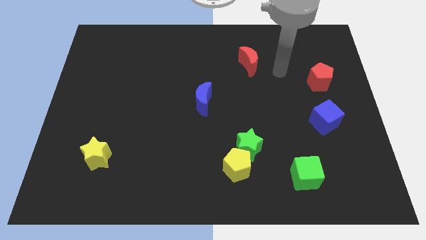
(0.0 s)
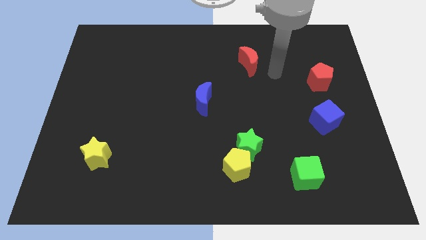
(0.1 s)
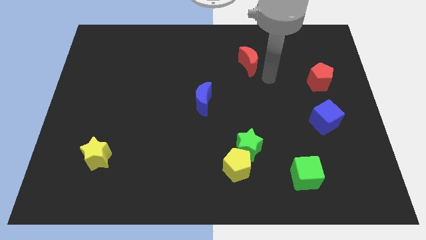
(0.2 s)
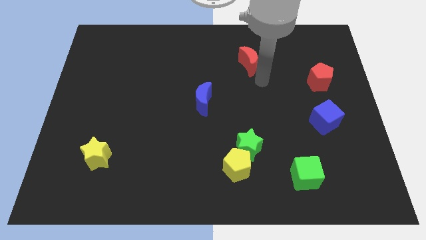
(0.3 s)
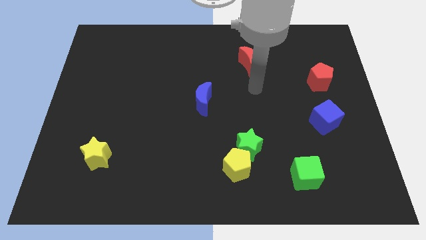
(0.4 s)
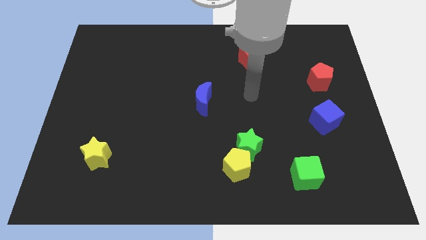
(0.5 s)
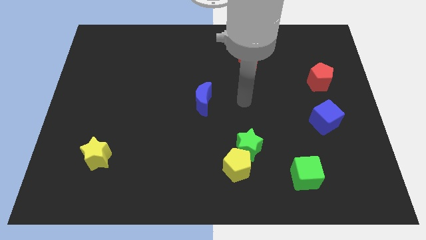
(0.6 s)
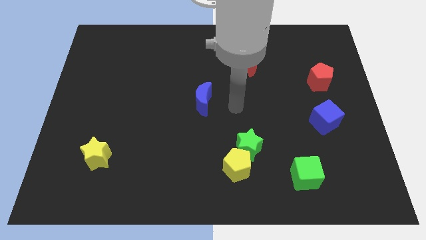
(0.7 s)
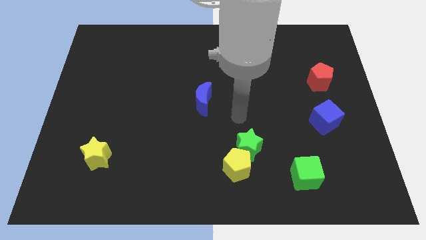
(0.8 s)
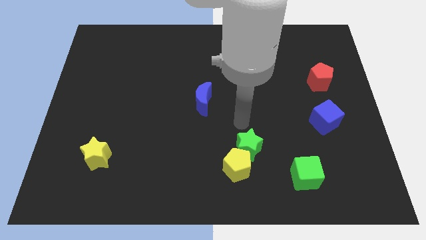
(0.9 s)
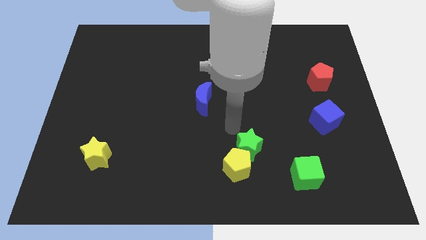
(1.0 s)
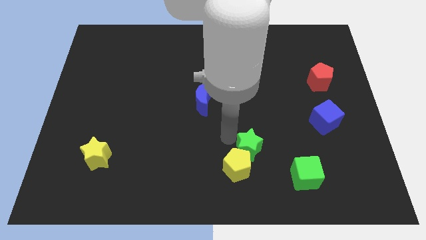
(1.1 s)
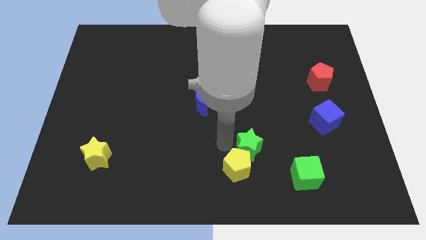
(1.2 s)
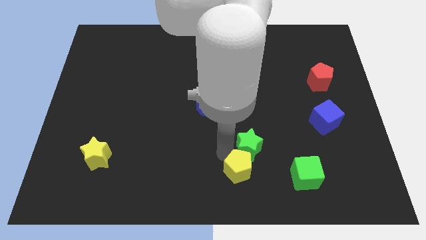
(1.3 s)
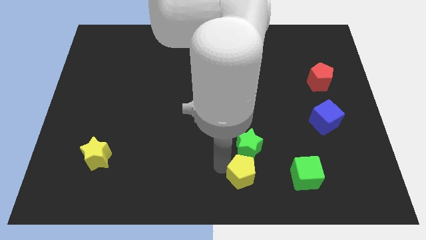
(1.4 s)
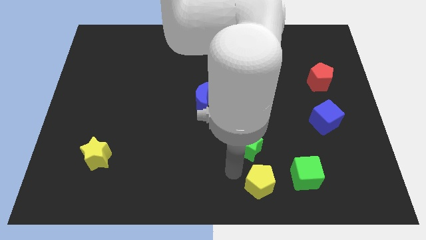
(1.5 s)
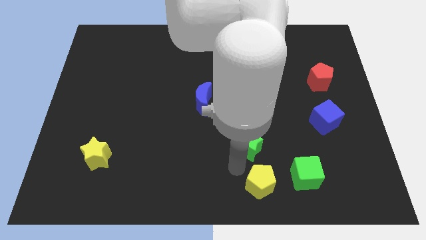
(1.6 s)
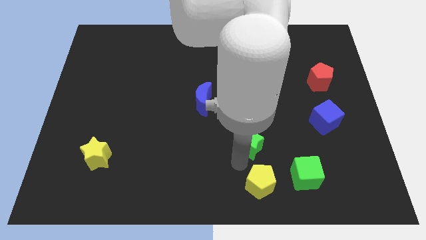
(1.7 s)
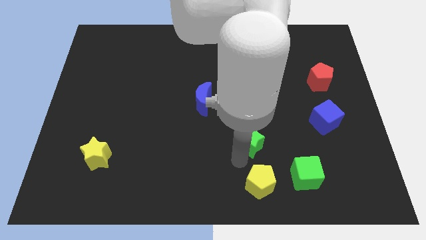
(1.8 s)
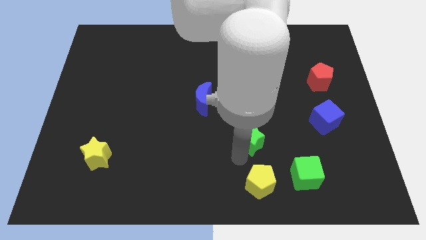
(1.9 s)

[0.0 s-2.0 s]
separate the green star from the yellow pentagon

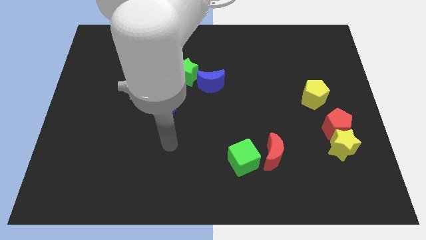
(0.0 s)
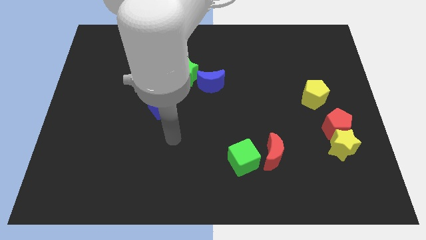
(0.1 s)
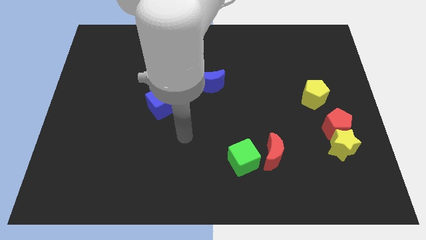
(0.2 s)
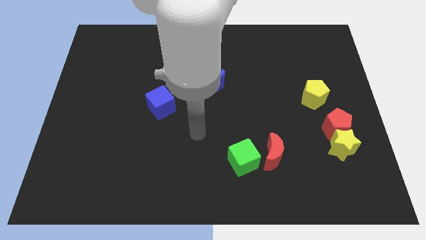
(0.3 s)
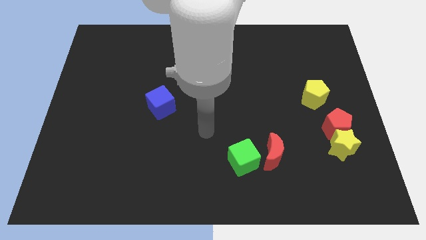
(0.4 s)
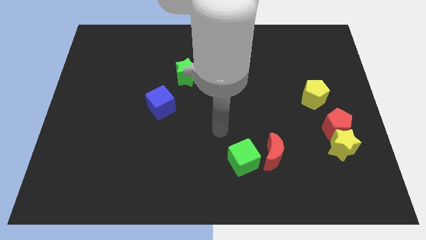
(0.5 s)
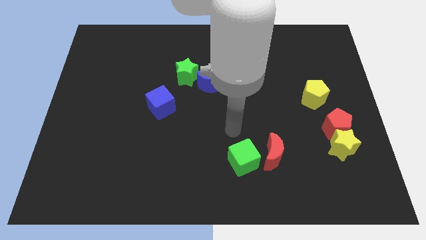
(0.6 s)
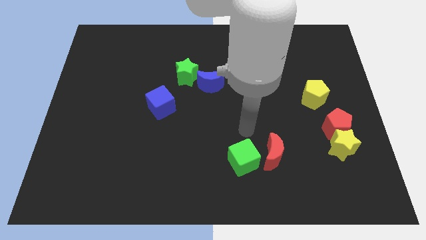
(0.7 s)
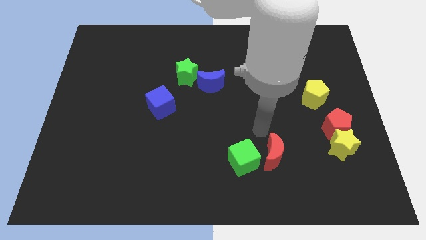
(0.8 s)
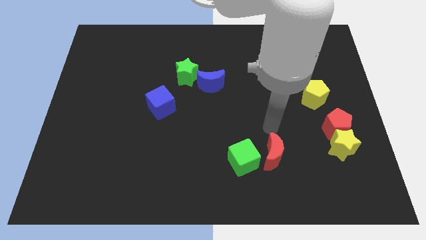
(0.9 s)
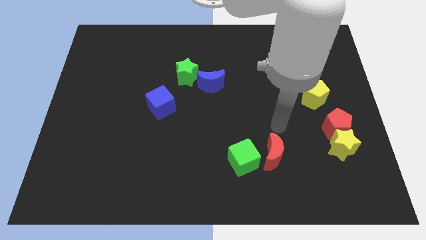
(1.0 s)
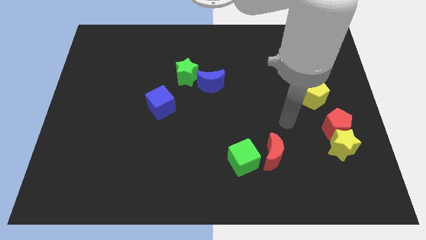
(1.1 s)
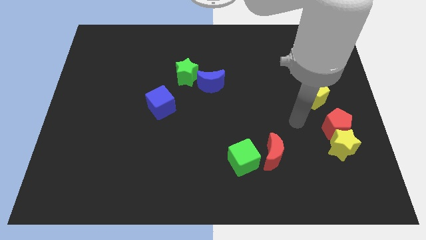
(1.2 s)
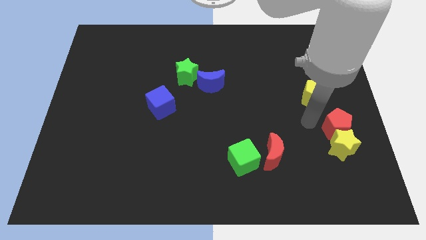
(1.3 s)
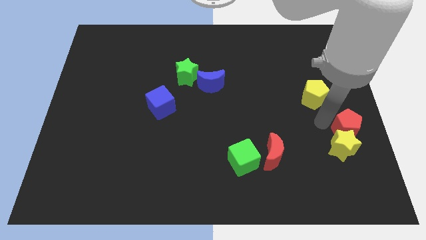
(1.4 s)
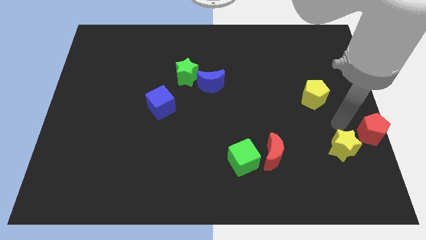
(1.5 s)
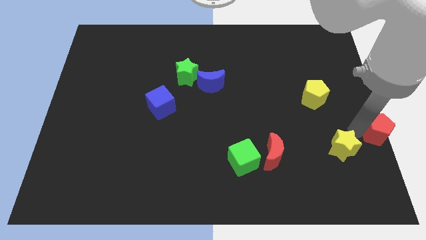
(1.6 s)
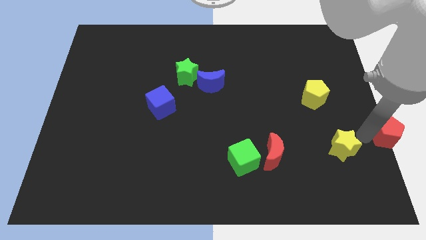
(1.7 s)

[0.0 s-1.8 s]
separate the yellow star from the red pentagon

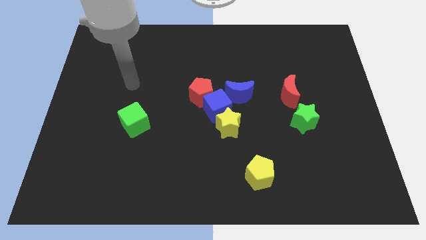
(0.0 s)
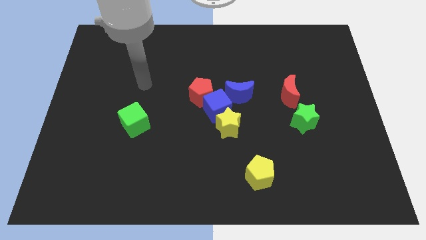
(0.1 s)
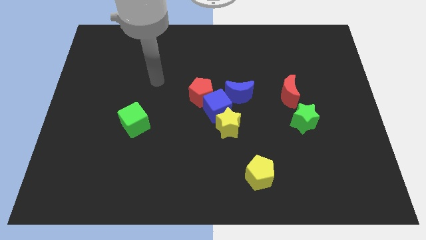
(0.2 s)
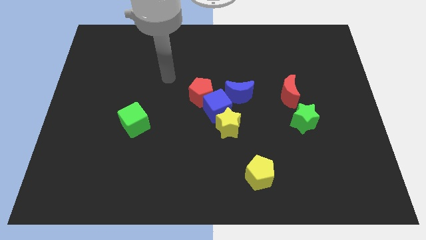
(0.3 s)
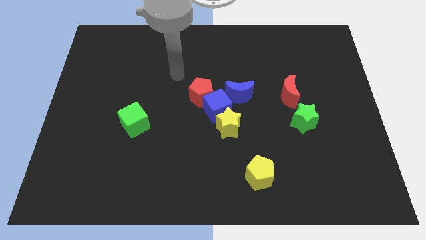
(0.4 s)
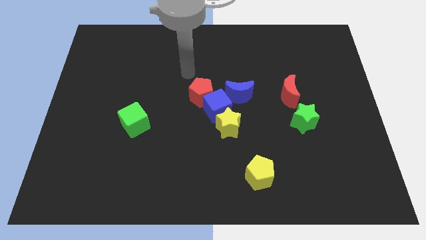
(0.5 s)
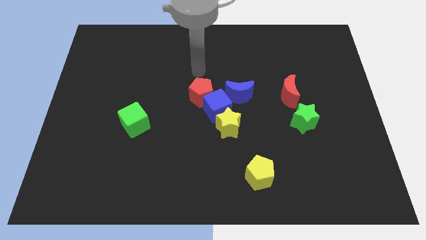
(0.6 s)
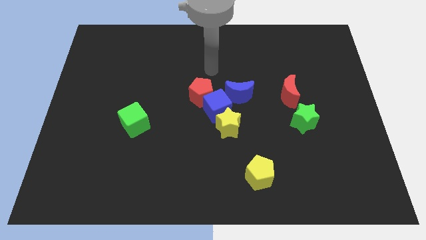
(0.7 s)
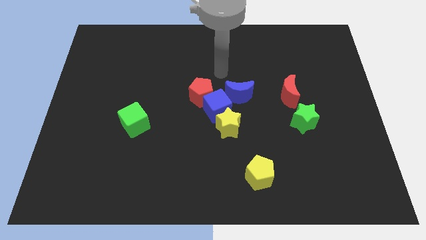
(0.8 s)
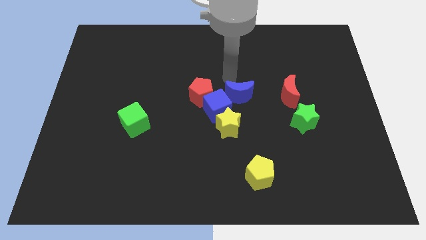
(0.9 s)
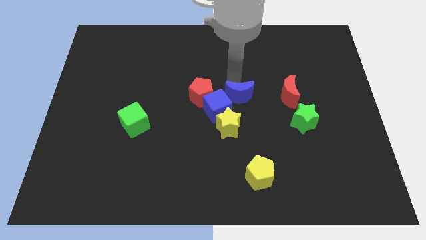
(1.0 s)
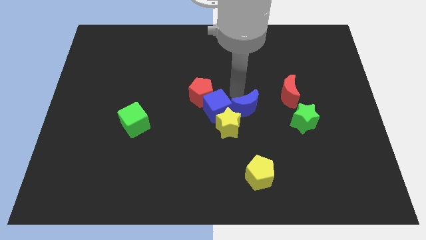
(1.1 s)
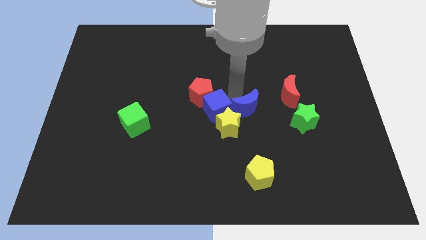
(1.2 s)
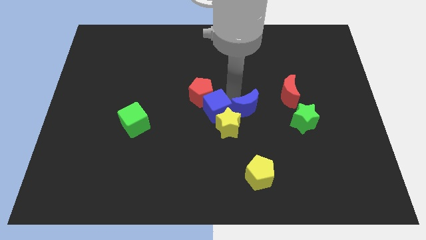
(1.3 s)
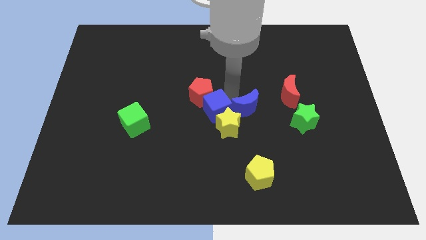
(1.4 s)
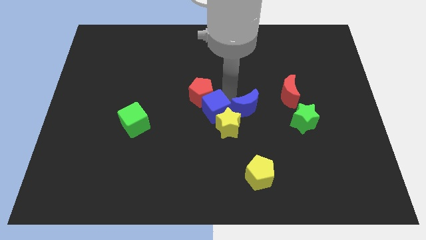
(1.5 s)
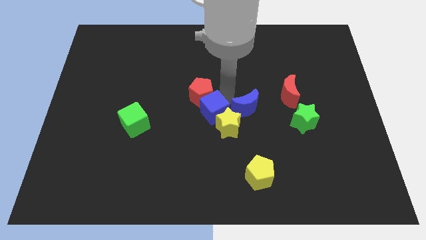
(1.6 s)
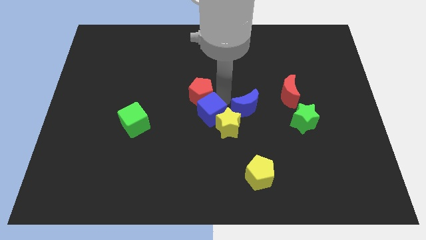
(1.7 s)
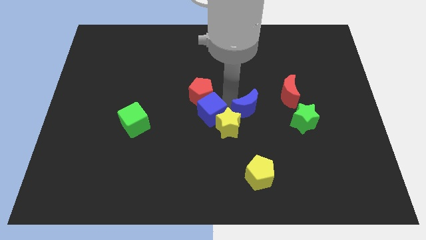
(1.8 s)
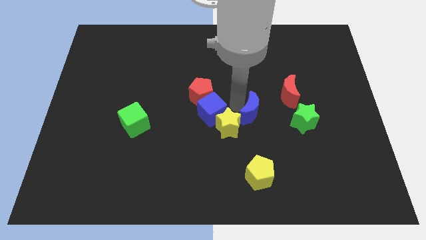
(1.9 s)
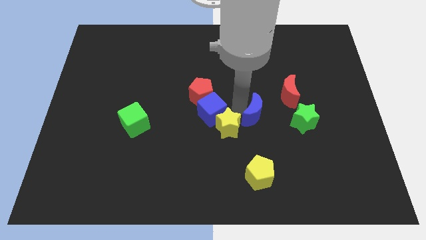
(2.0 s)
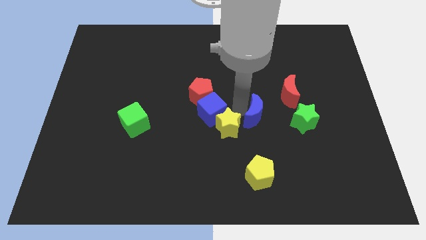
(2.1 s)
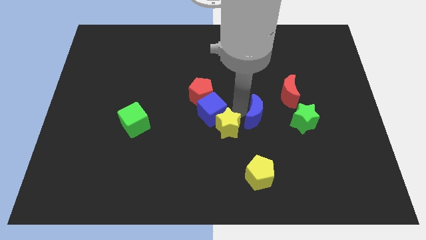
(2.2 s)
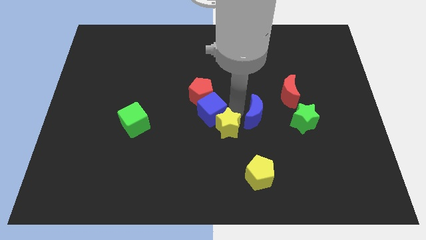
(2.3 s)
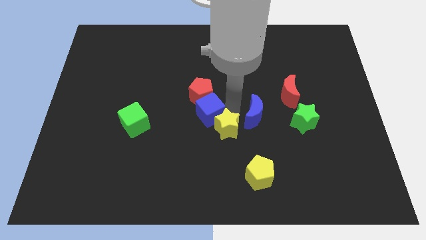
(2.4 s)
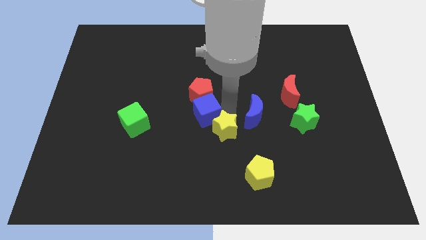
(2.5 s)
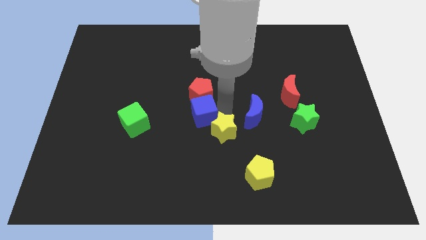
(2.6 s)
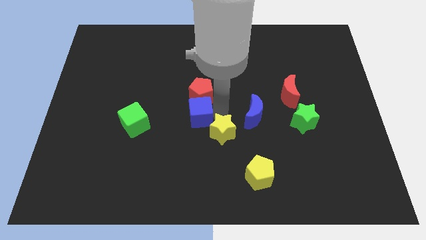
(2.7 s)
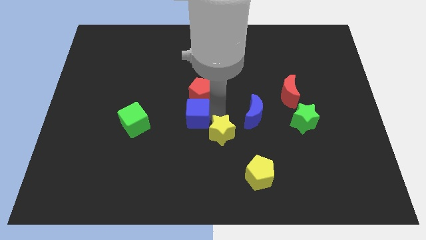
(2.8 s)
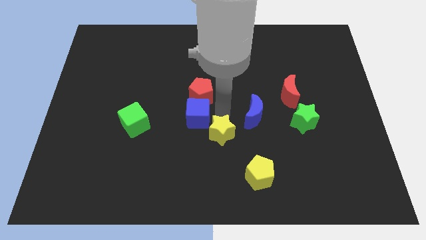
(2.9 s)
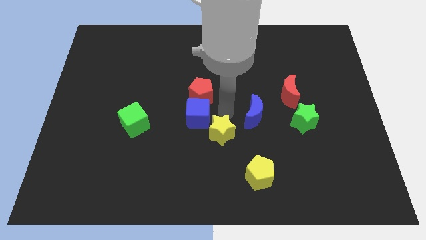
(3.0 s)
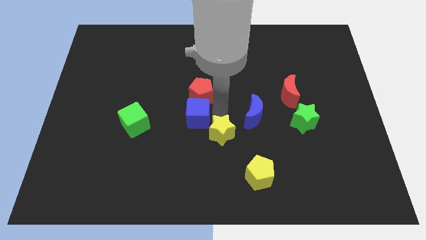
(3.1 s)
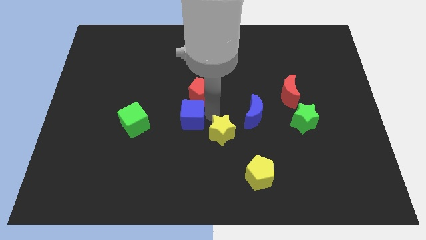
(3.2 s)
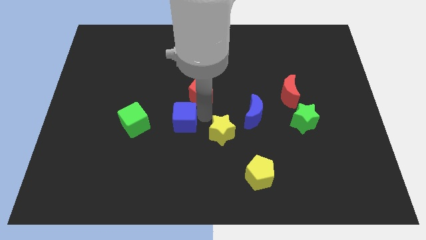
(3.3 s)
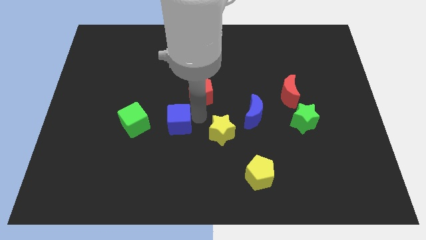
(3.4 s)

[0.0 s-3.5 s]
pull the blue cube apart from the yellow star, red pentagon, and blue moon

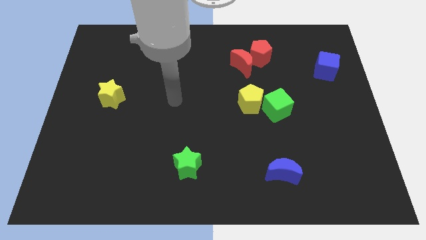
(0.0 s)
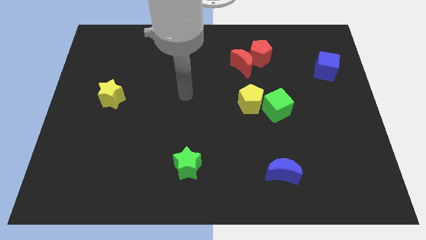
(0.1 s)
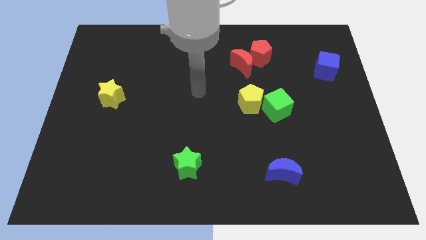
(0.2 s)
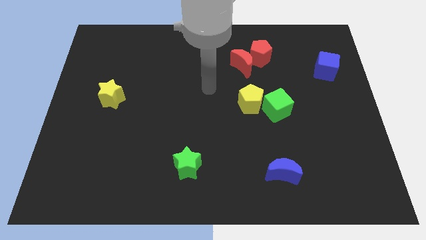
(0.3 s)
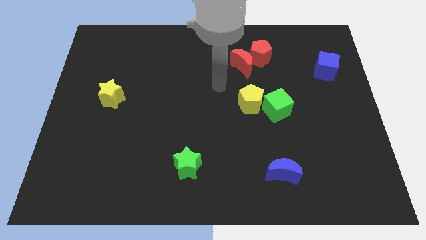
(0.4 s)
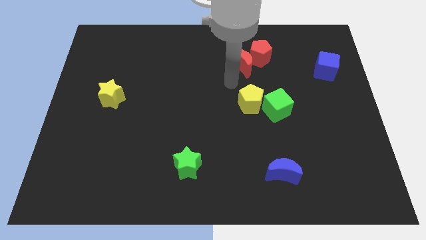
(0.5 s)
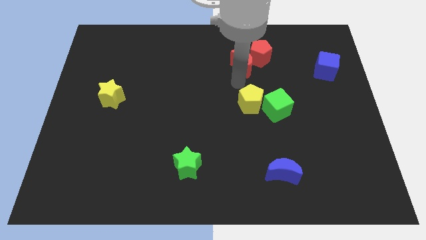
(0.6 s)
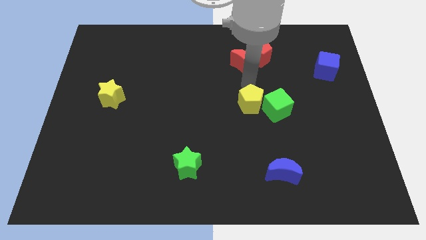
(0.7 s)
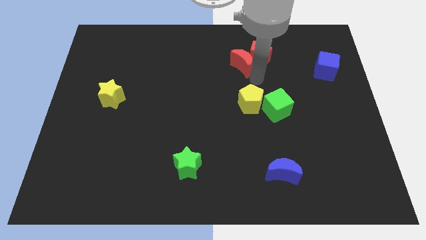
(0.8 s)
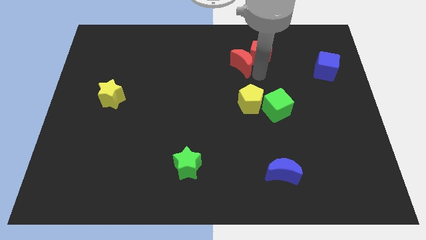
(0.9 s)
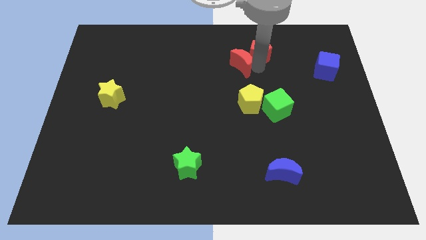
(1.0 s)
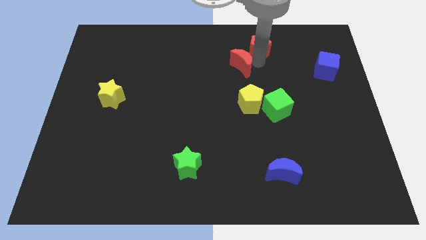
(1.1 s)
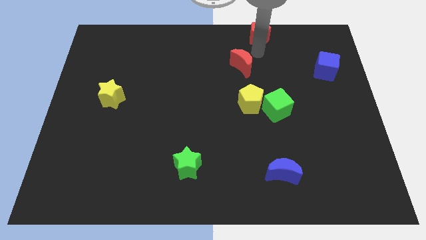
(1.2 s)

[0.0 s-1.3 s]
pull the red moon apart from the red pentagon

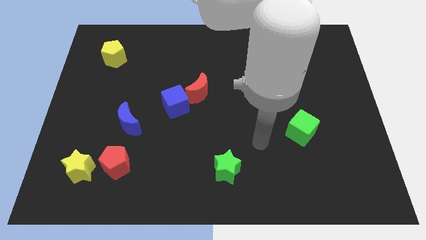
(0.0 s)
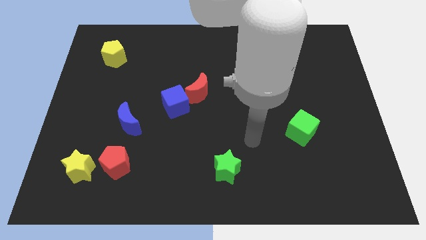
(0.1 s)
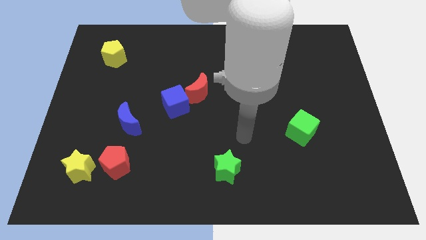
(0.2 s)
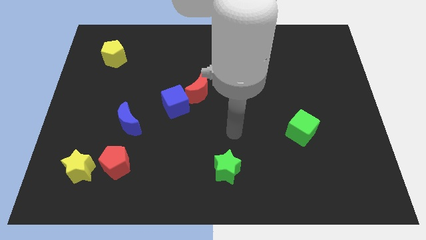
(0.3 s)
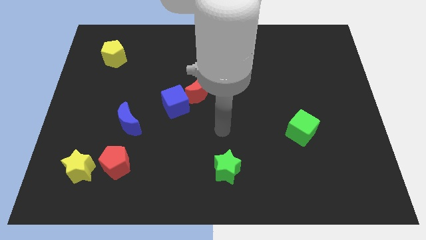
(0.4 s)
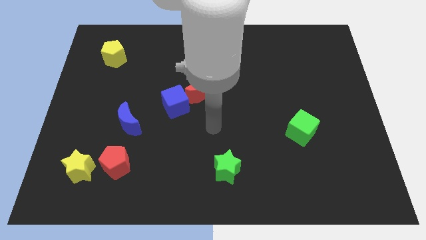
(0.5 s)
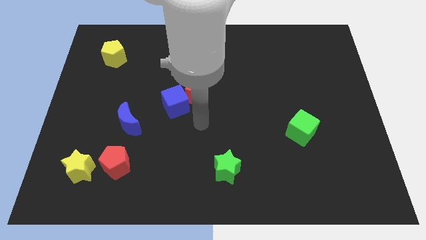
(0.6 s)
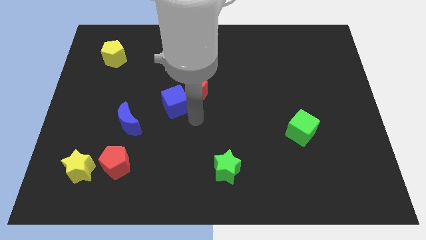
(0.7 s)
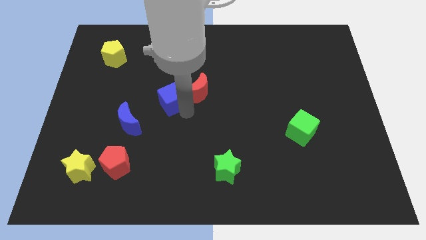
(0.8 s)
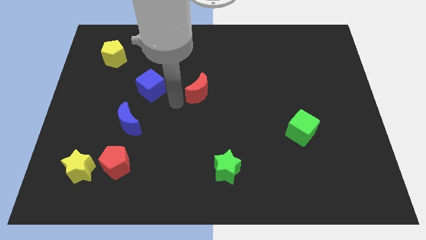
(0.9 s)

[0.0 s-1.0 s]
separate the red moon from the blue cube
